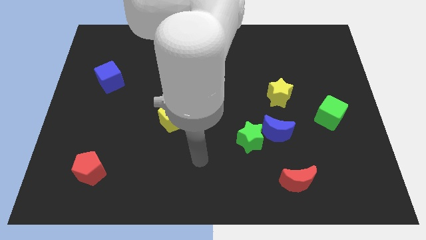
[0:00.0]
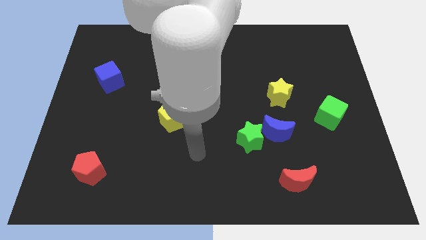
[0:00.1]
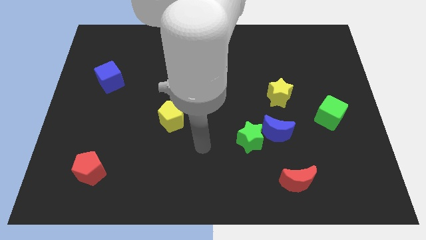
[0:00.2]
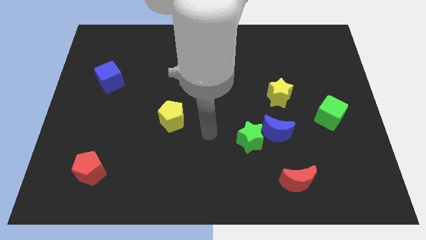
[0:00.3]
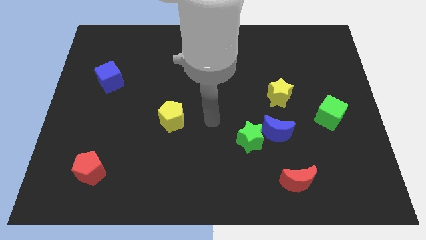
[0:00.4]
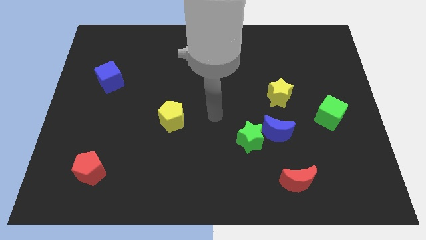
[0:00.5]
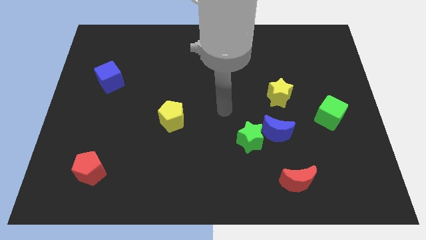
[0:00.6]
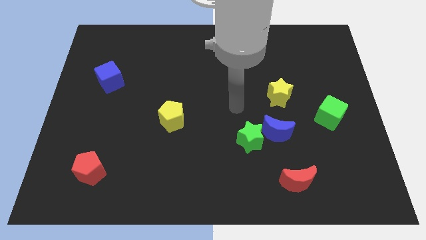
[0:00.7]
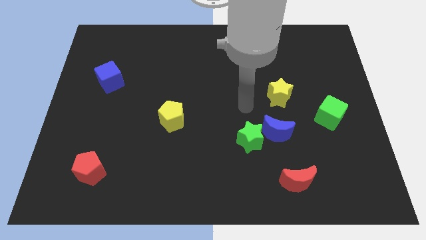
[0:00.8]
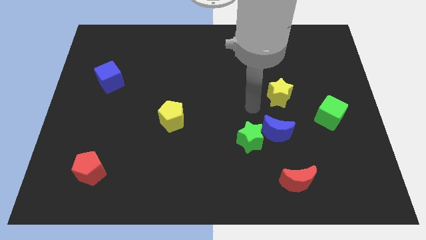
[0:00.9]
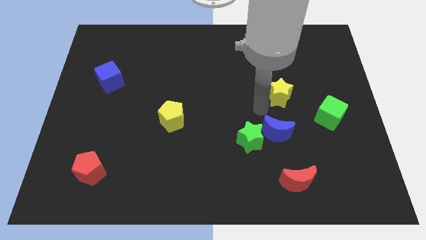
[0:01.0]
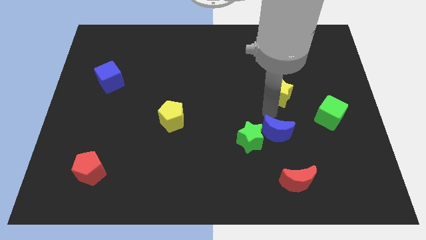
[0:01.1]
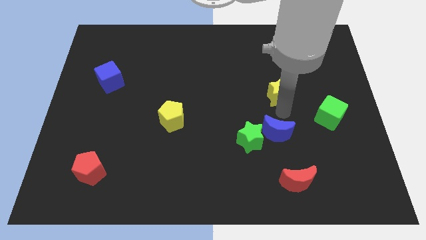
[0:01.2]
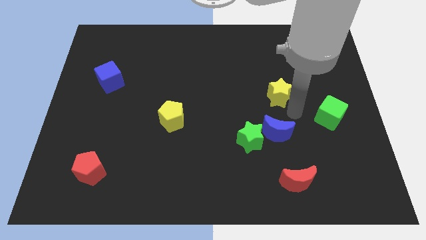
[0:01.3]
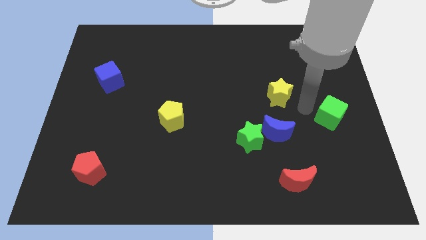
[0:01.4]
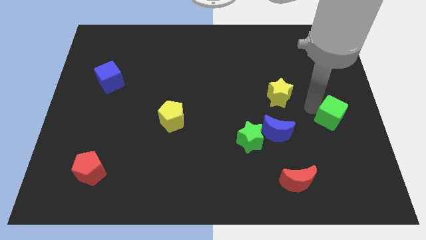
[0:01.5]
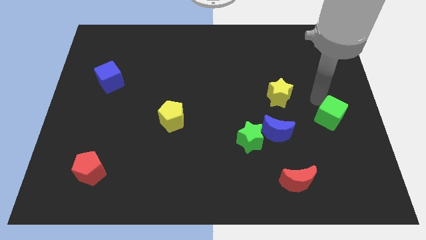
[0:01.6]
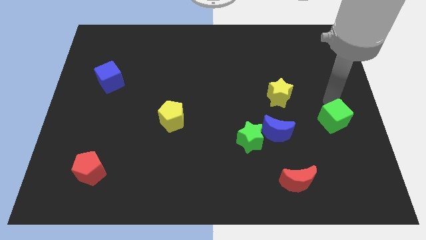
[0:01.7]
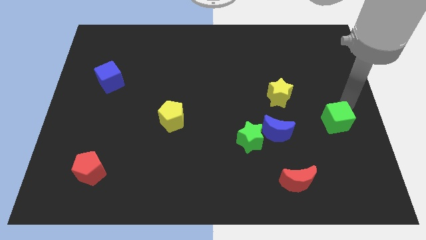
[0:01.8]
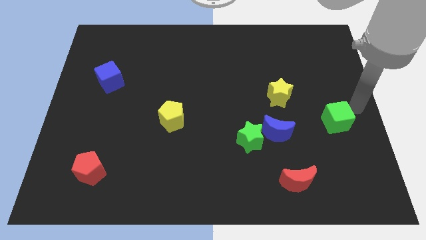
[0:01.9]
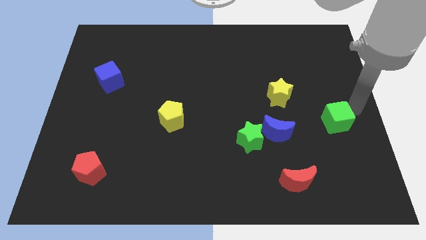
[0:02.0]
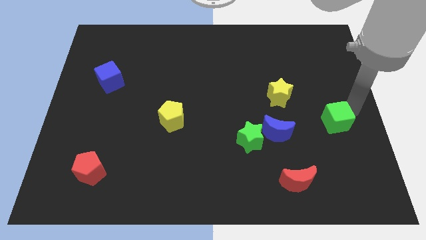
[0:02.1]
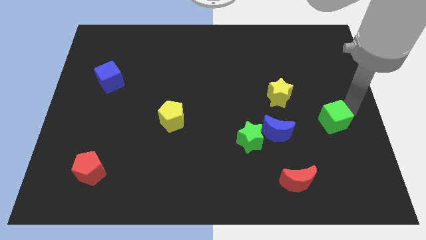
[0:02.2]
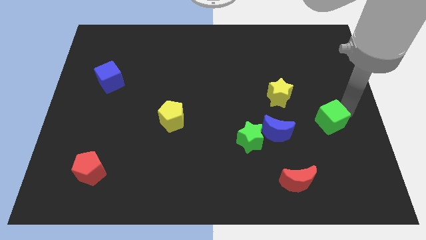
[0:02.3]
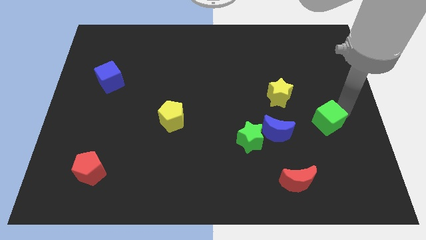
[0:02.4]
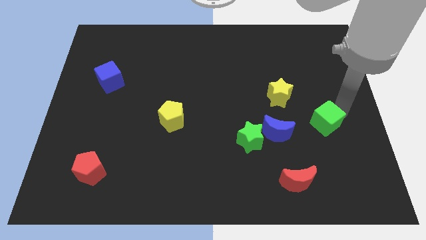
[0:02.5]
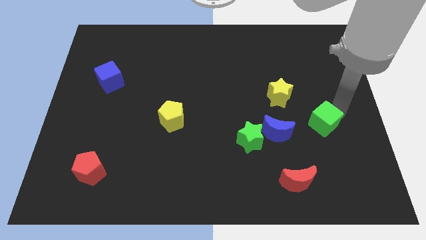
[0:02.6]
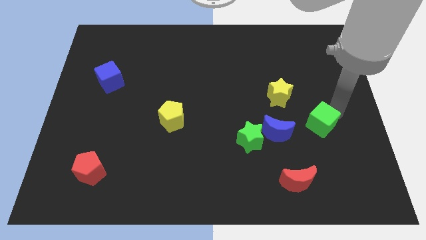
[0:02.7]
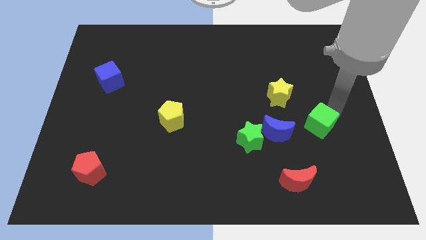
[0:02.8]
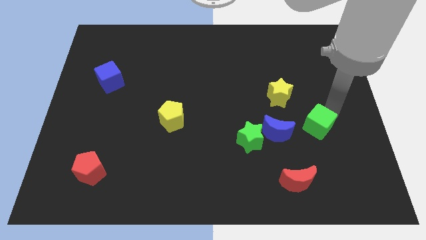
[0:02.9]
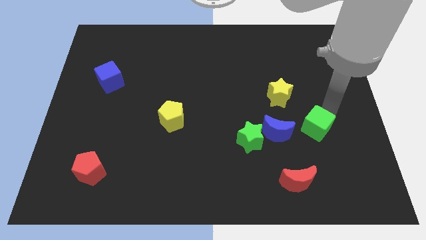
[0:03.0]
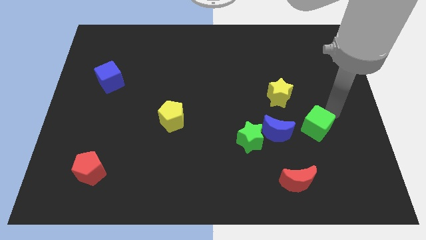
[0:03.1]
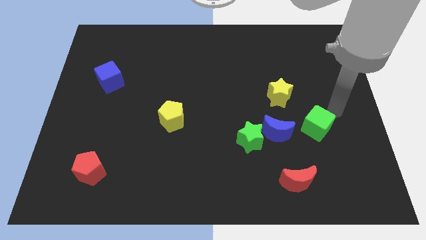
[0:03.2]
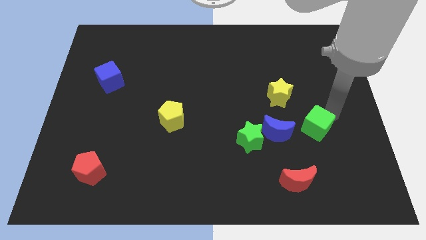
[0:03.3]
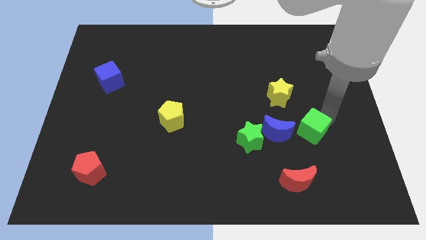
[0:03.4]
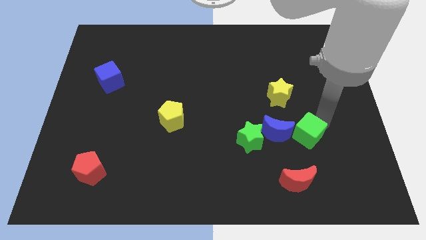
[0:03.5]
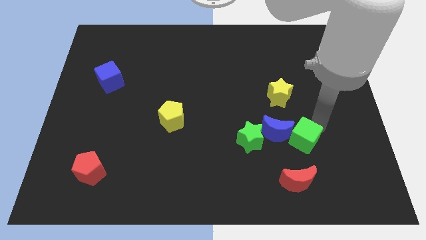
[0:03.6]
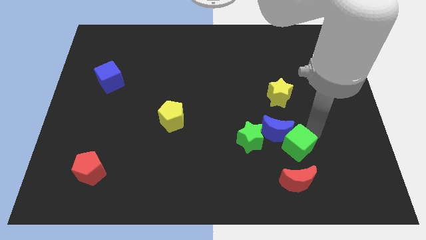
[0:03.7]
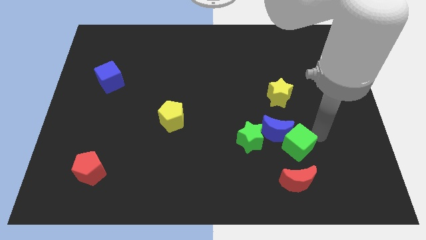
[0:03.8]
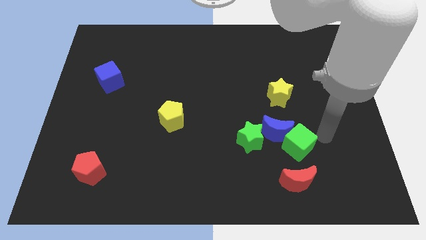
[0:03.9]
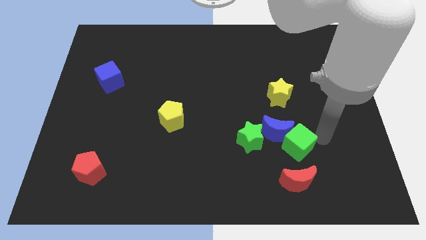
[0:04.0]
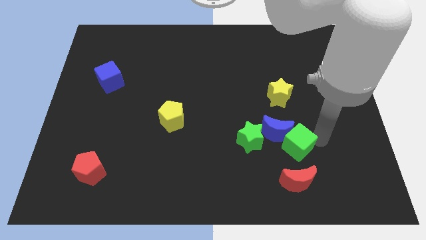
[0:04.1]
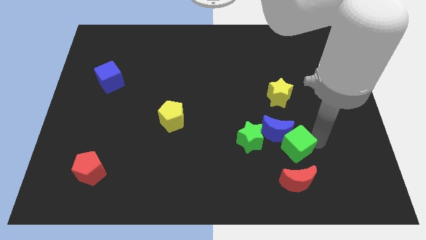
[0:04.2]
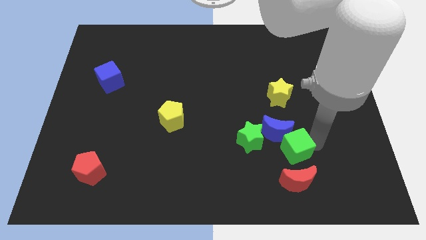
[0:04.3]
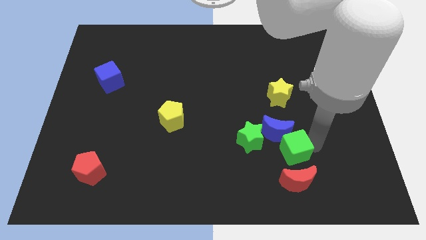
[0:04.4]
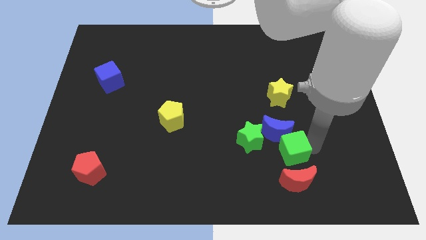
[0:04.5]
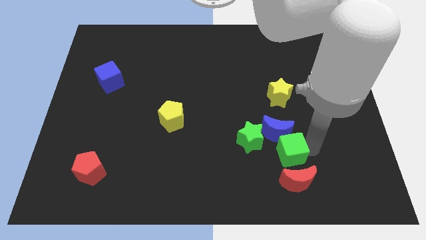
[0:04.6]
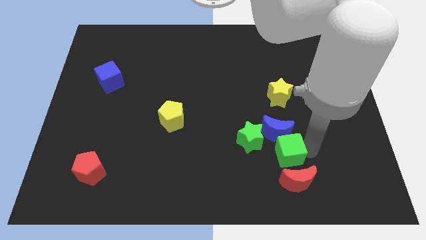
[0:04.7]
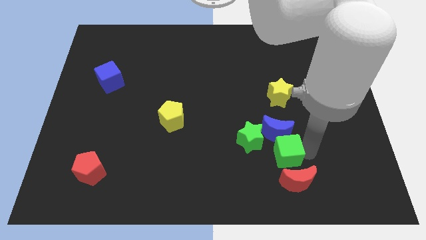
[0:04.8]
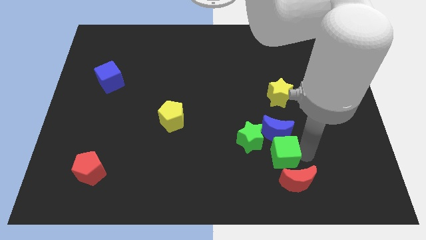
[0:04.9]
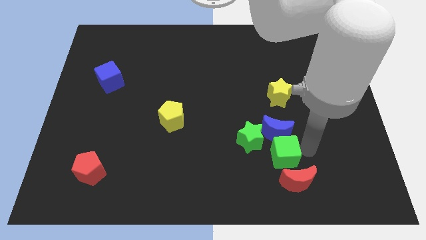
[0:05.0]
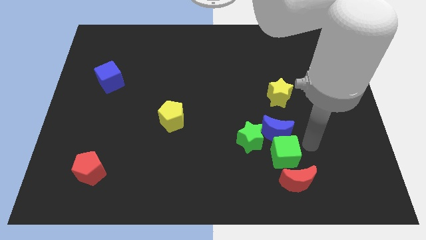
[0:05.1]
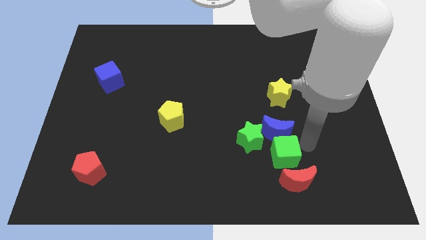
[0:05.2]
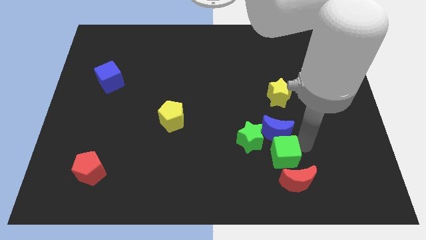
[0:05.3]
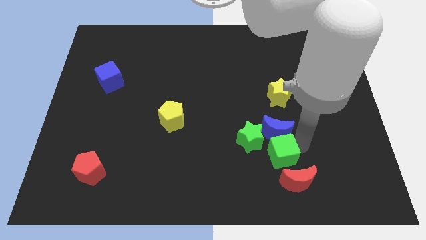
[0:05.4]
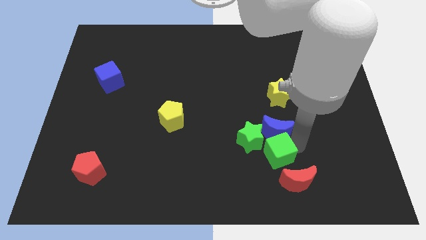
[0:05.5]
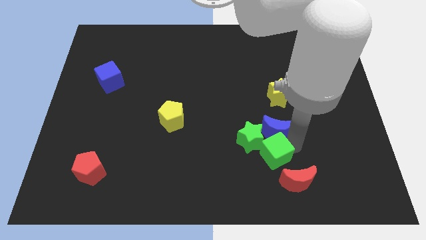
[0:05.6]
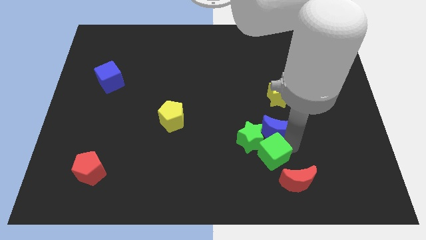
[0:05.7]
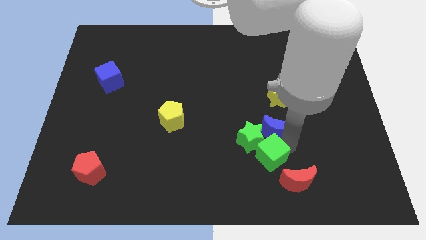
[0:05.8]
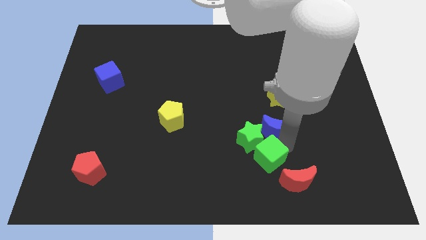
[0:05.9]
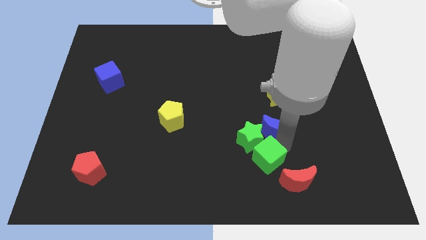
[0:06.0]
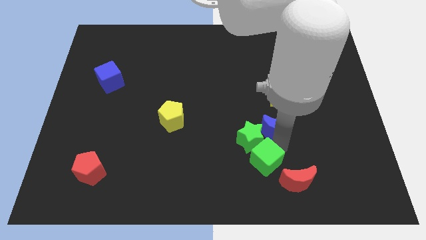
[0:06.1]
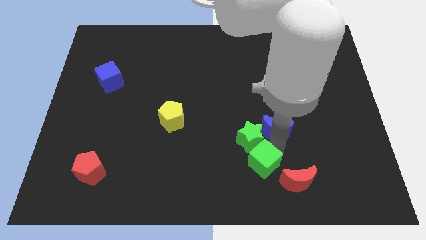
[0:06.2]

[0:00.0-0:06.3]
slide the green cube just left of the red moon
